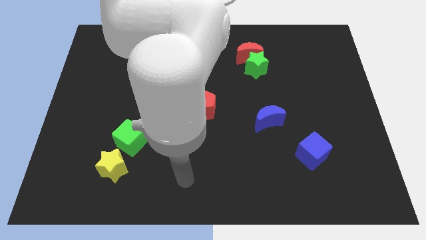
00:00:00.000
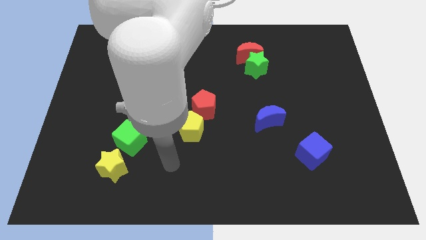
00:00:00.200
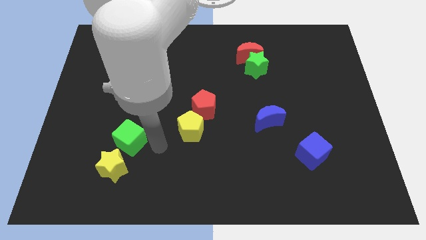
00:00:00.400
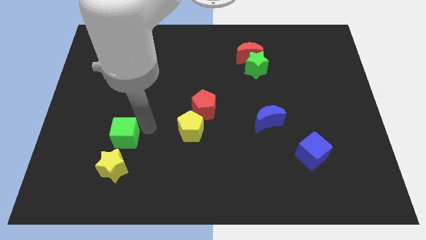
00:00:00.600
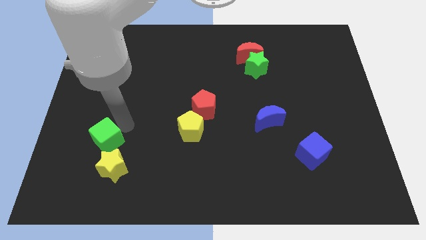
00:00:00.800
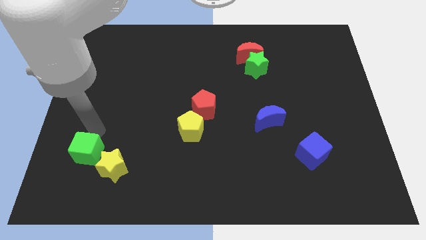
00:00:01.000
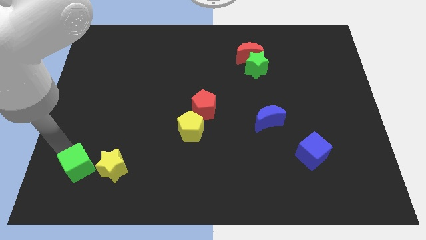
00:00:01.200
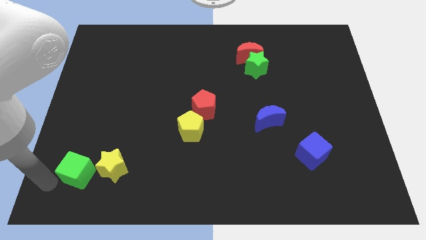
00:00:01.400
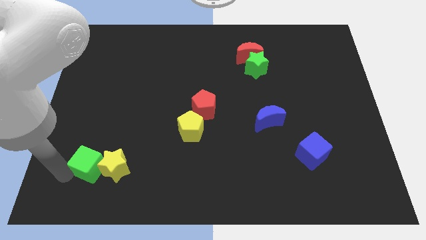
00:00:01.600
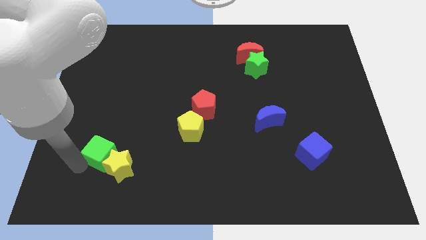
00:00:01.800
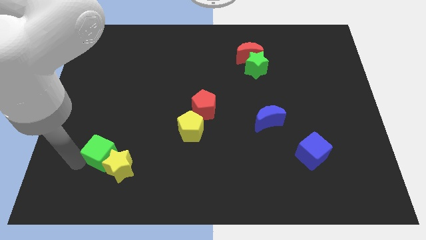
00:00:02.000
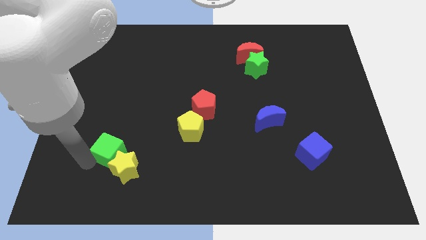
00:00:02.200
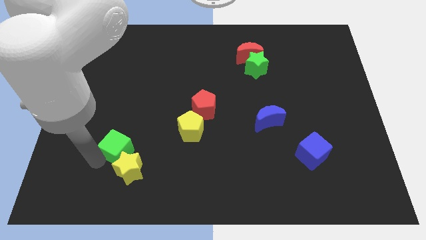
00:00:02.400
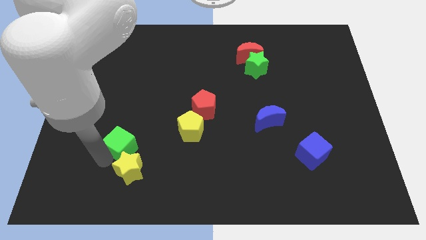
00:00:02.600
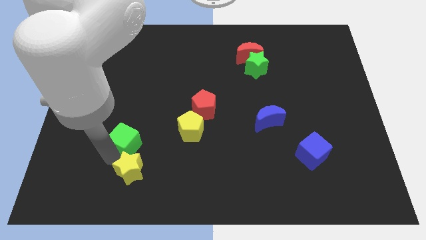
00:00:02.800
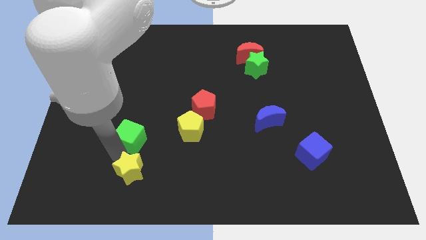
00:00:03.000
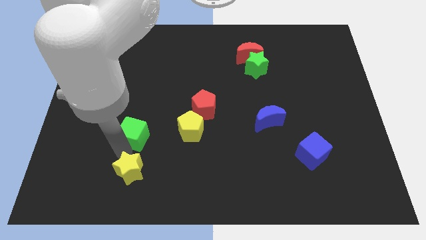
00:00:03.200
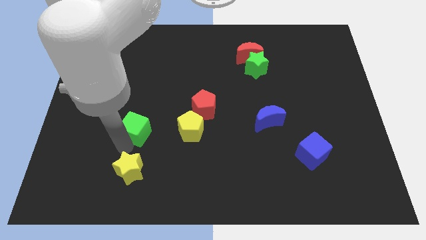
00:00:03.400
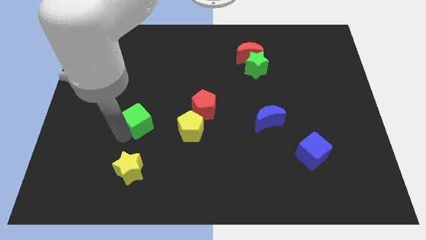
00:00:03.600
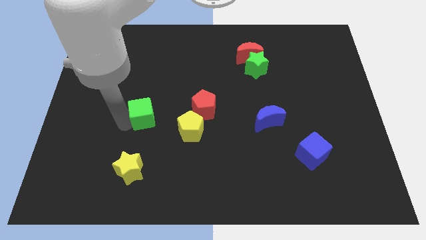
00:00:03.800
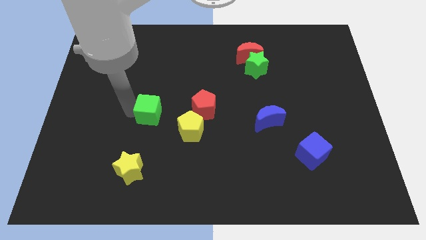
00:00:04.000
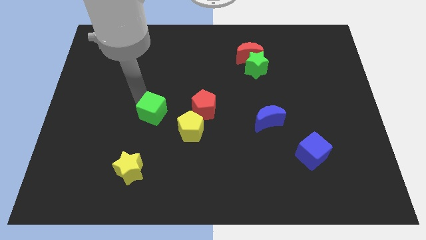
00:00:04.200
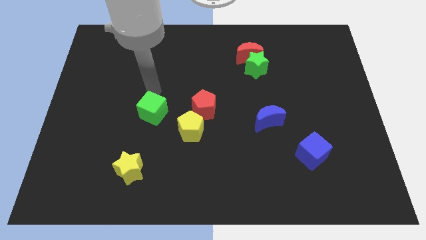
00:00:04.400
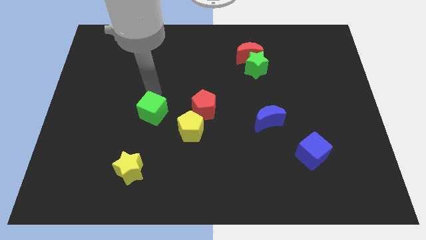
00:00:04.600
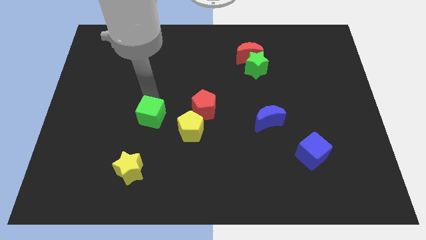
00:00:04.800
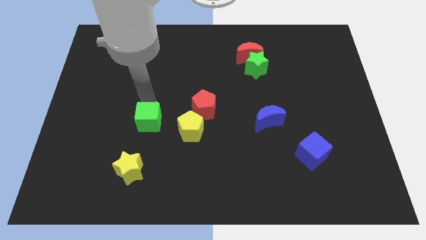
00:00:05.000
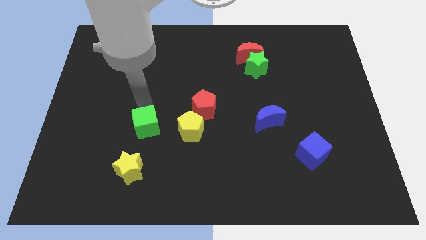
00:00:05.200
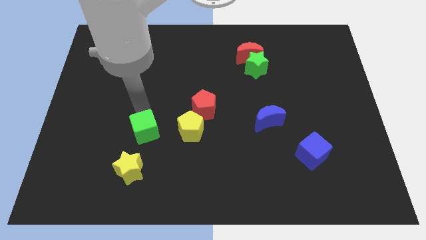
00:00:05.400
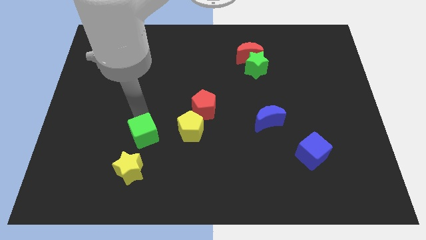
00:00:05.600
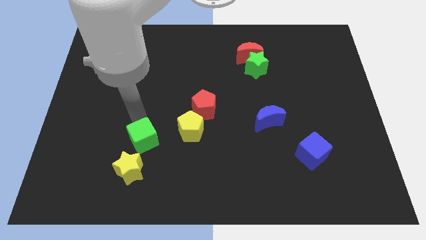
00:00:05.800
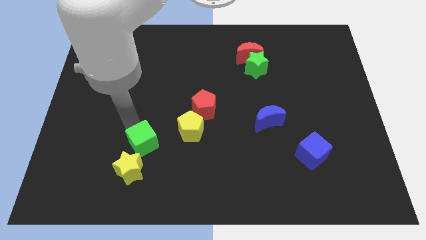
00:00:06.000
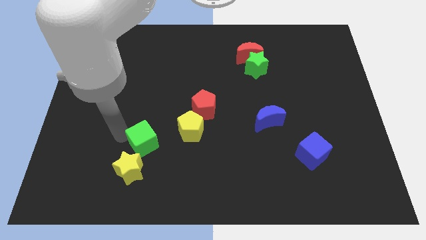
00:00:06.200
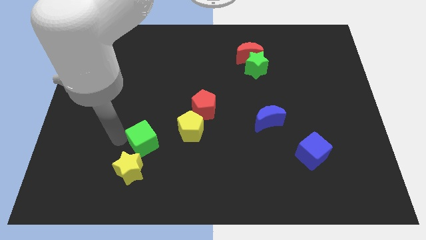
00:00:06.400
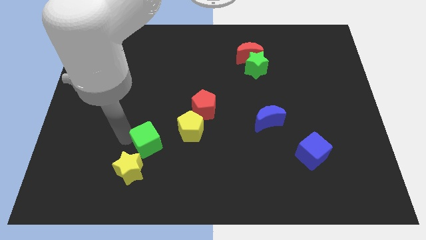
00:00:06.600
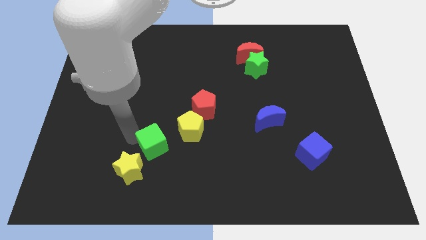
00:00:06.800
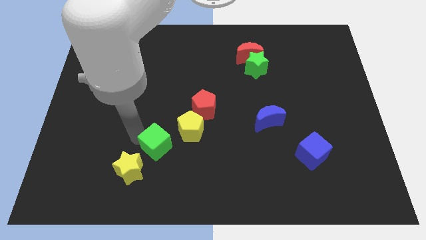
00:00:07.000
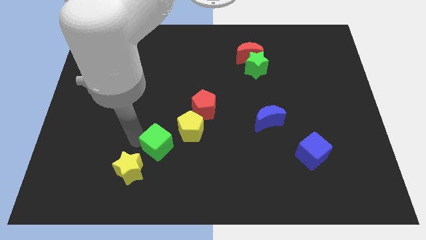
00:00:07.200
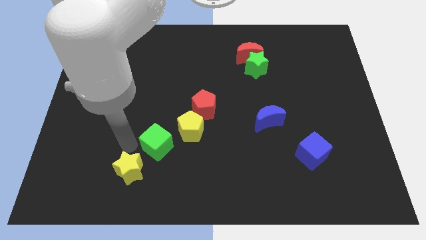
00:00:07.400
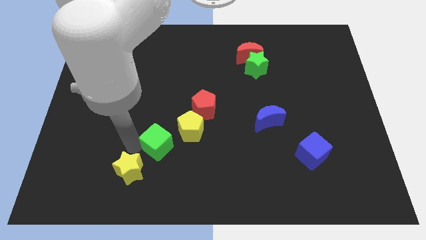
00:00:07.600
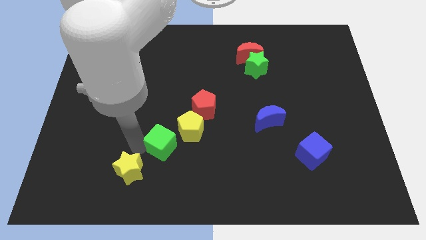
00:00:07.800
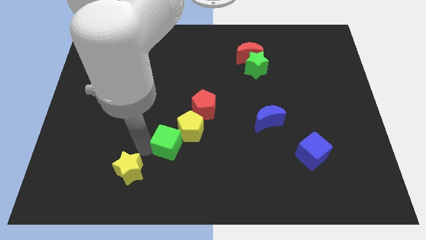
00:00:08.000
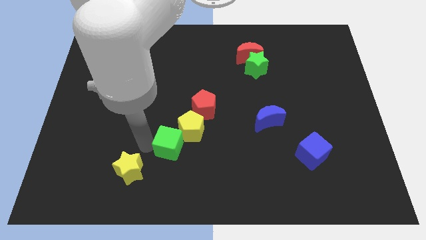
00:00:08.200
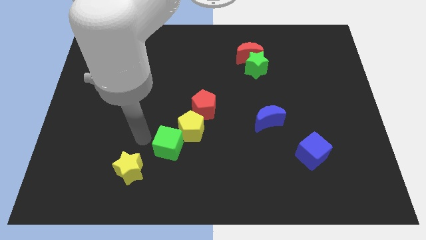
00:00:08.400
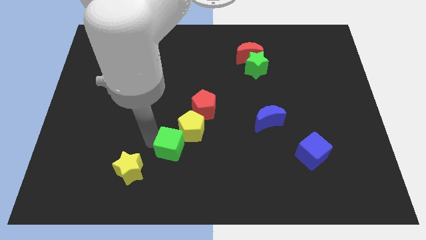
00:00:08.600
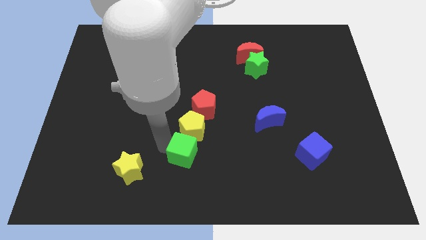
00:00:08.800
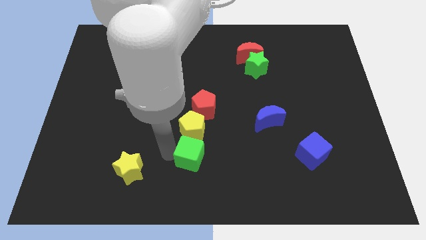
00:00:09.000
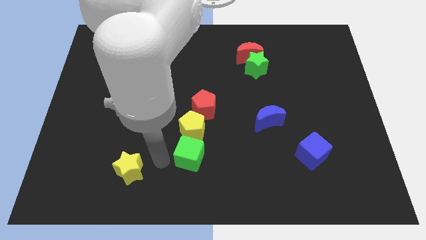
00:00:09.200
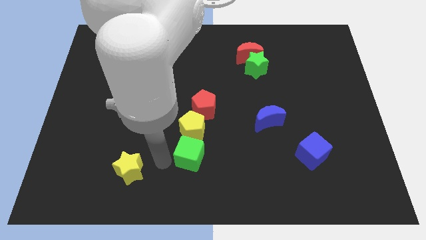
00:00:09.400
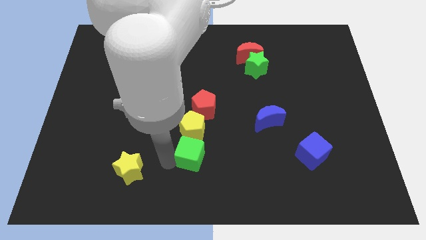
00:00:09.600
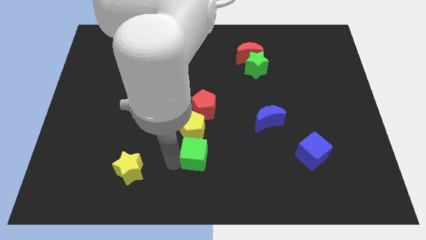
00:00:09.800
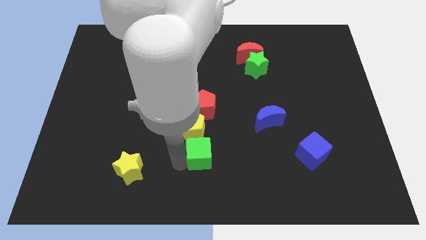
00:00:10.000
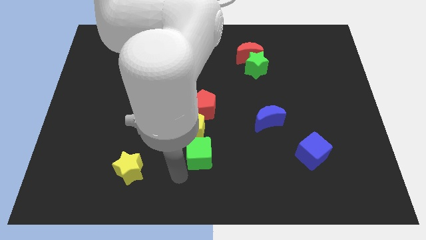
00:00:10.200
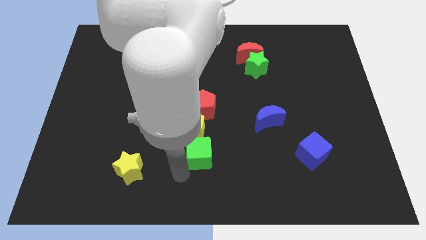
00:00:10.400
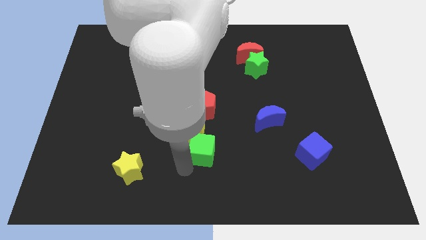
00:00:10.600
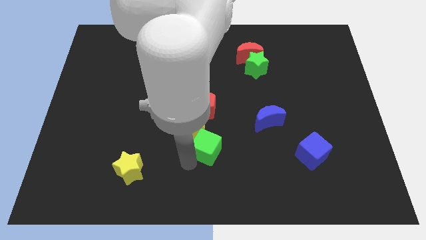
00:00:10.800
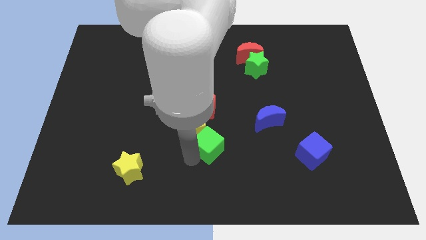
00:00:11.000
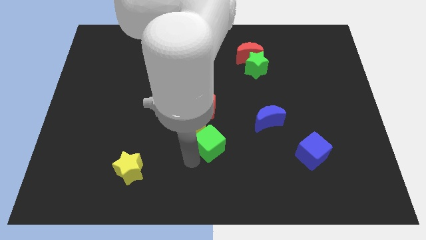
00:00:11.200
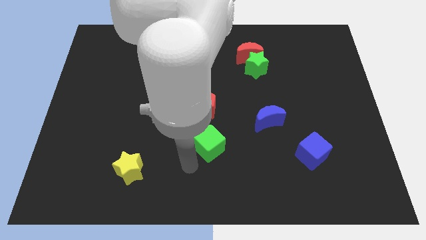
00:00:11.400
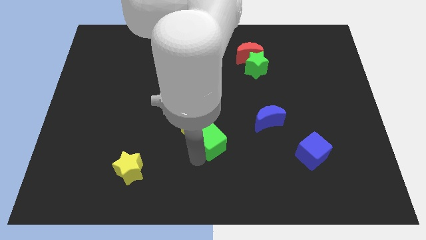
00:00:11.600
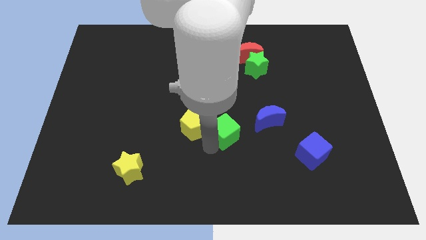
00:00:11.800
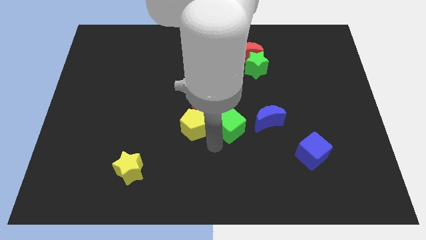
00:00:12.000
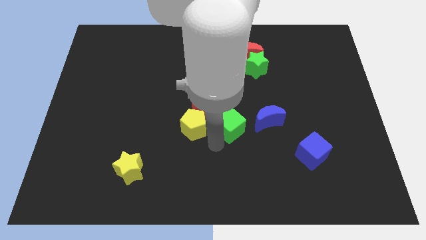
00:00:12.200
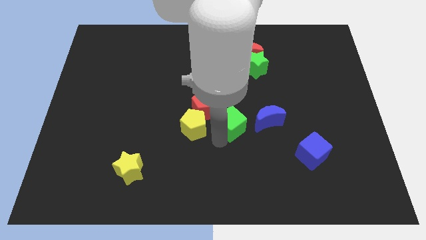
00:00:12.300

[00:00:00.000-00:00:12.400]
slide the green cube just right of the red pentagon

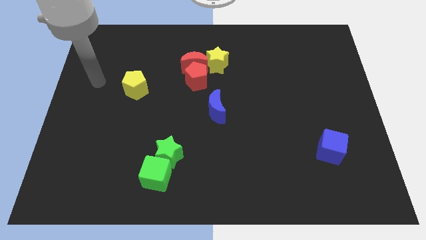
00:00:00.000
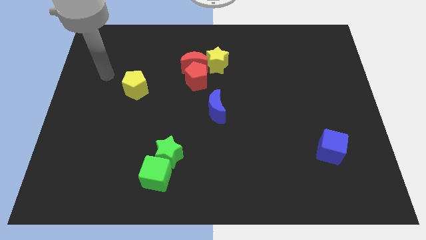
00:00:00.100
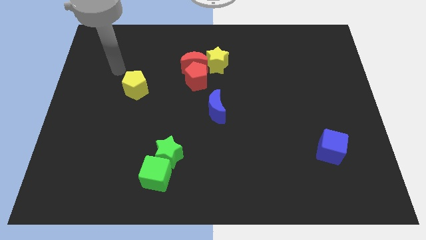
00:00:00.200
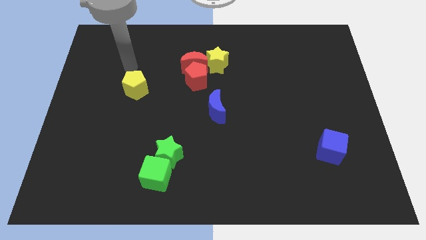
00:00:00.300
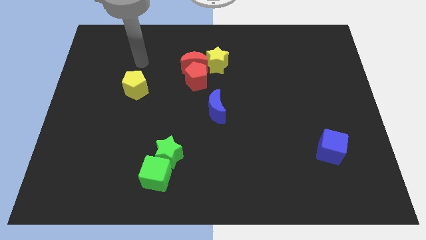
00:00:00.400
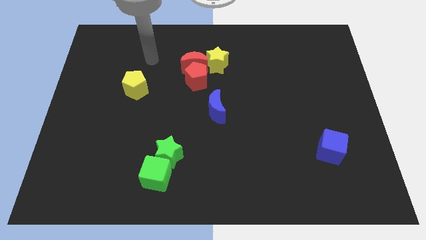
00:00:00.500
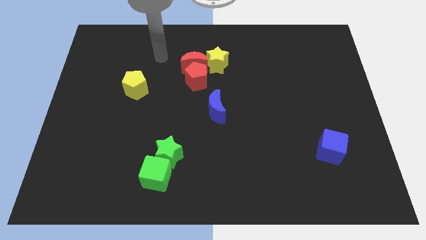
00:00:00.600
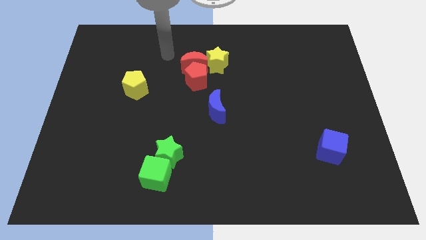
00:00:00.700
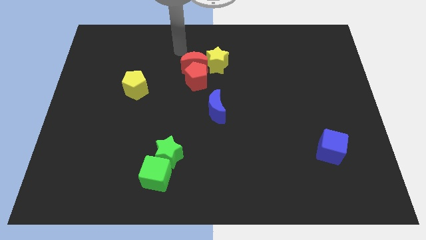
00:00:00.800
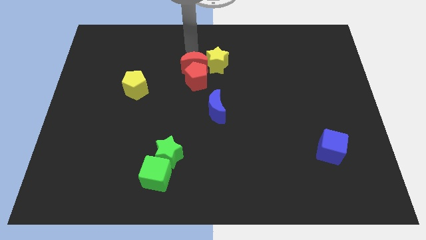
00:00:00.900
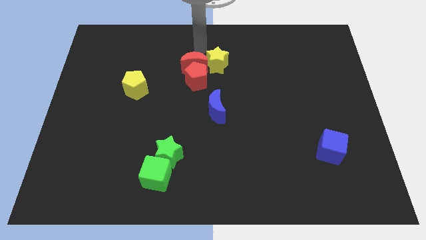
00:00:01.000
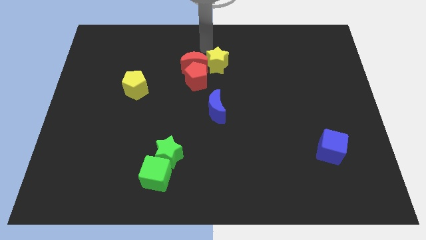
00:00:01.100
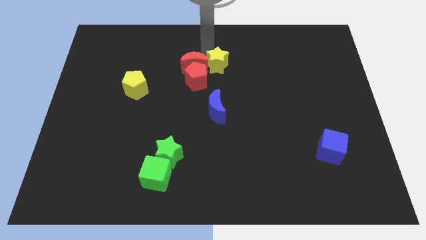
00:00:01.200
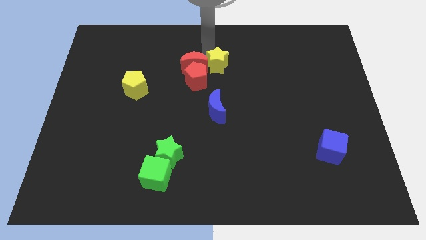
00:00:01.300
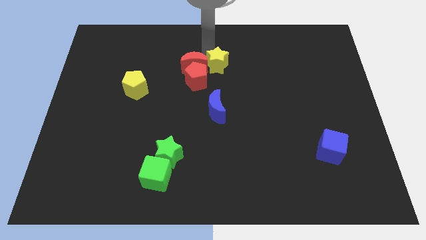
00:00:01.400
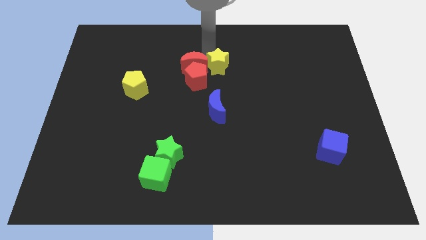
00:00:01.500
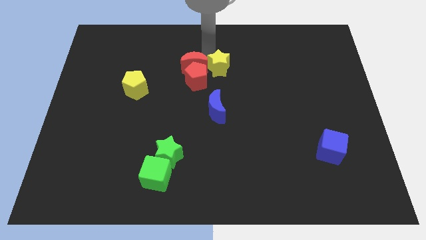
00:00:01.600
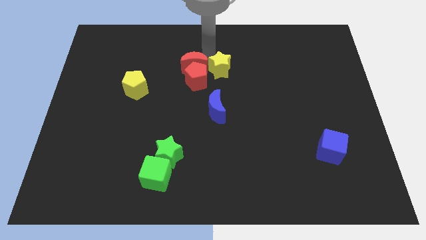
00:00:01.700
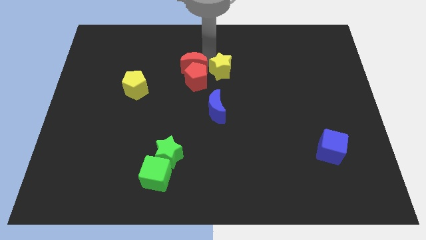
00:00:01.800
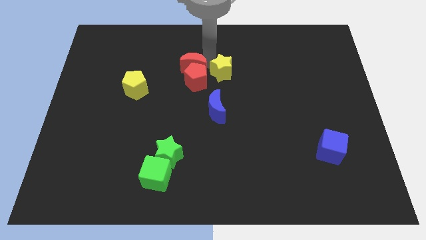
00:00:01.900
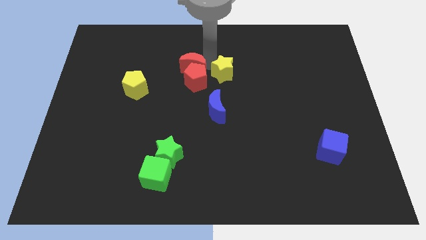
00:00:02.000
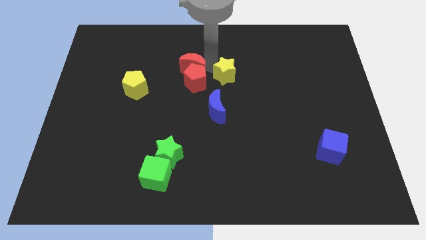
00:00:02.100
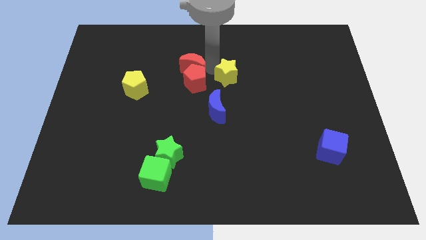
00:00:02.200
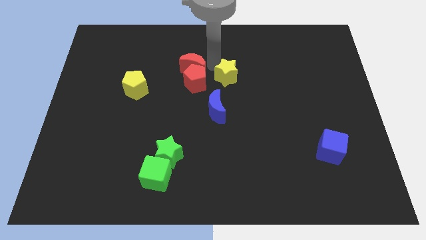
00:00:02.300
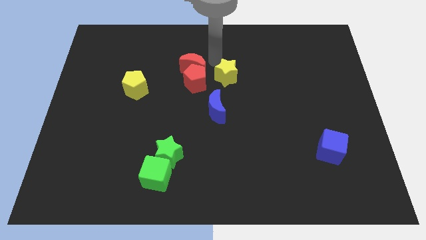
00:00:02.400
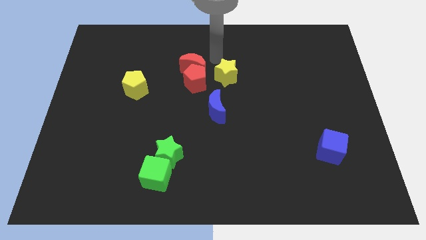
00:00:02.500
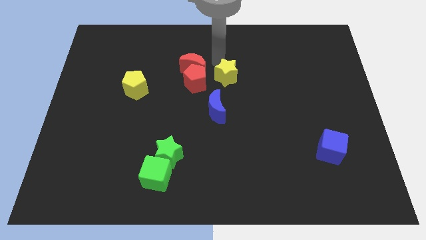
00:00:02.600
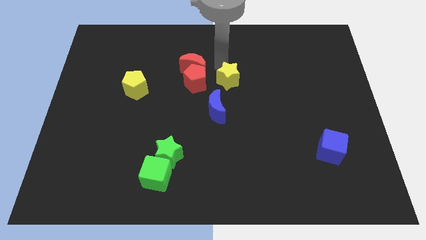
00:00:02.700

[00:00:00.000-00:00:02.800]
slide the yellow star to the top right of the blue moon
